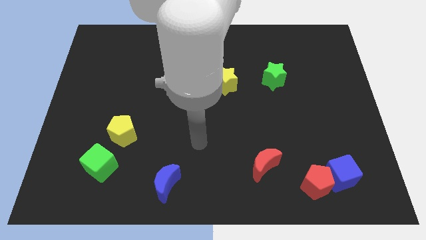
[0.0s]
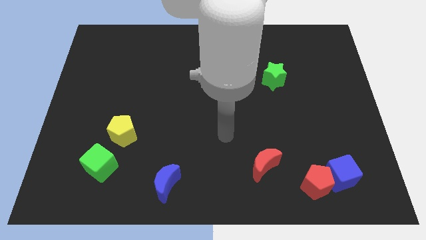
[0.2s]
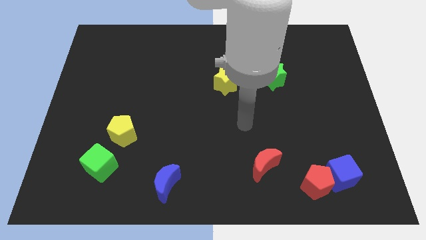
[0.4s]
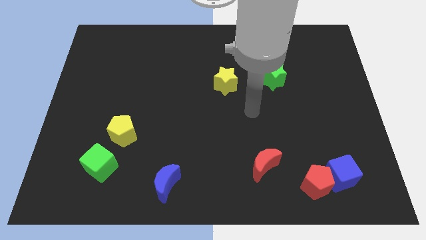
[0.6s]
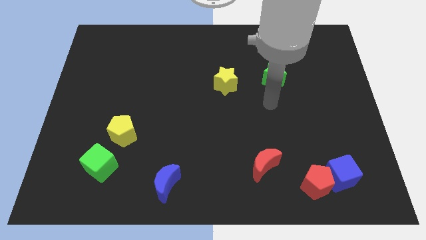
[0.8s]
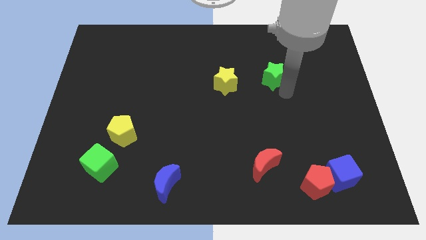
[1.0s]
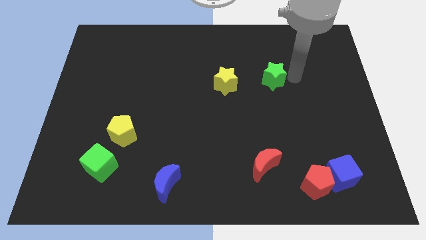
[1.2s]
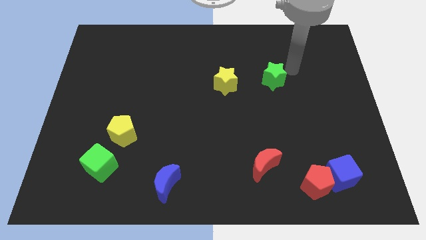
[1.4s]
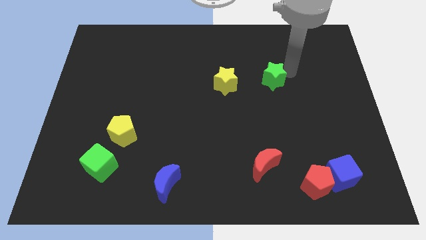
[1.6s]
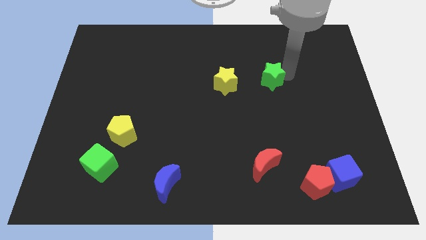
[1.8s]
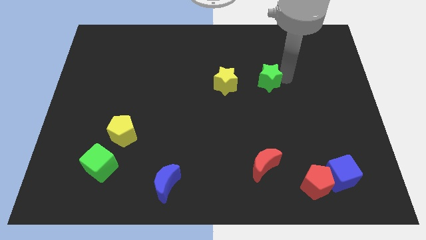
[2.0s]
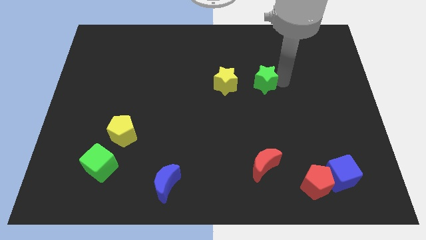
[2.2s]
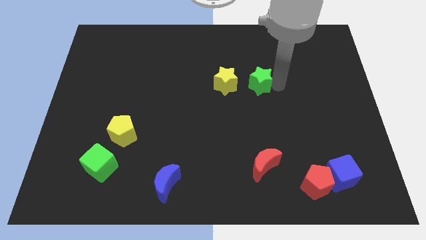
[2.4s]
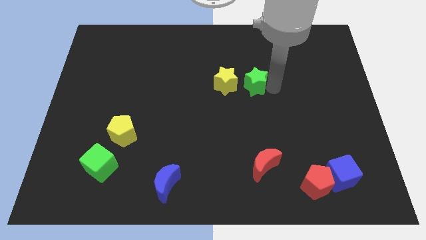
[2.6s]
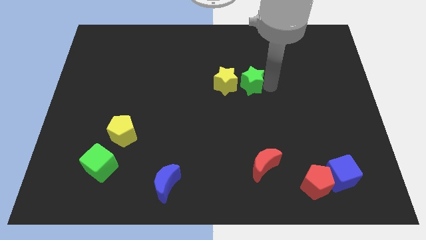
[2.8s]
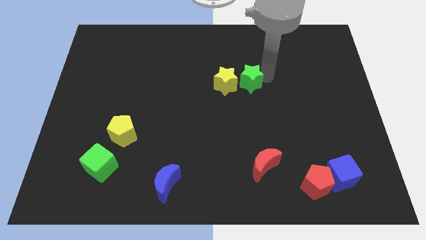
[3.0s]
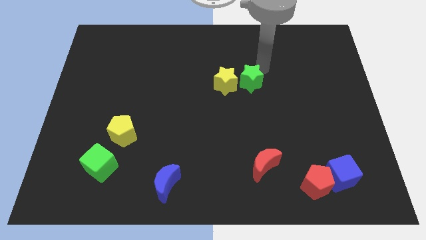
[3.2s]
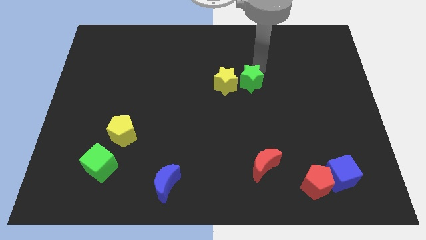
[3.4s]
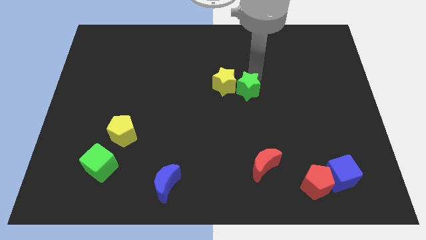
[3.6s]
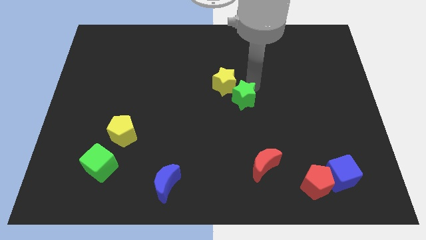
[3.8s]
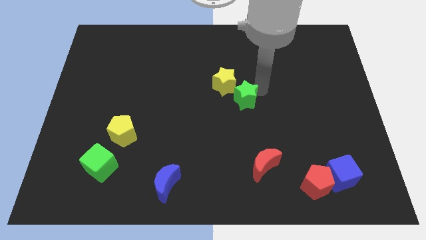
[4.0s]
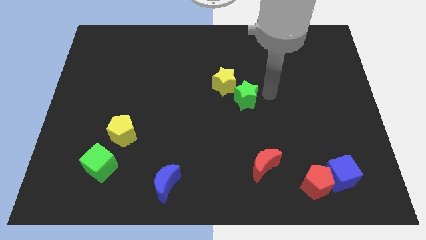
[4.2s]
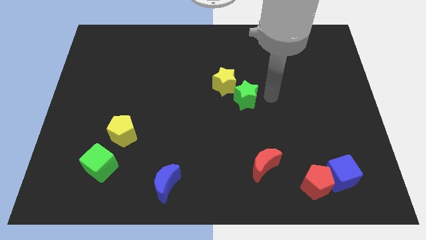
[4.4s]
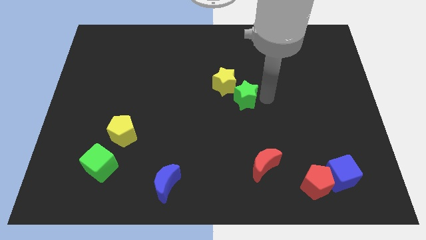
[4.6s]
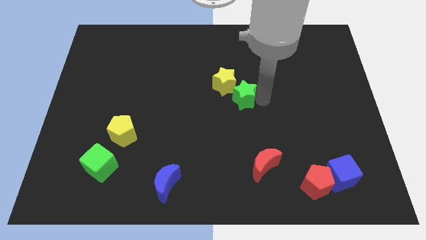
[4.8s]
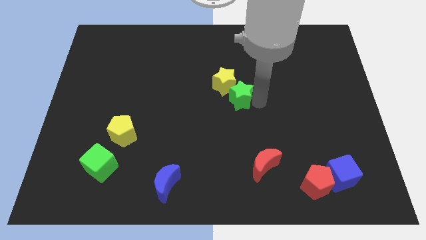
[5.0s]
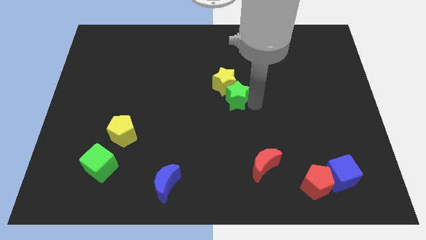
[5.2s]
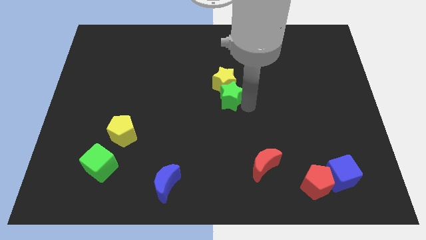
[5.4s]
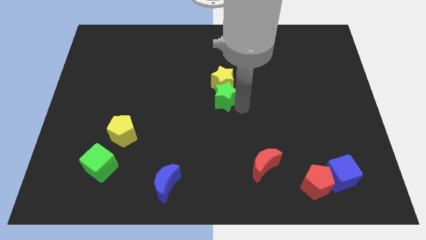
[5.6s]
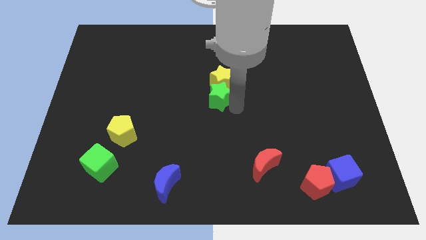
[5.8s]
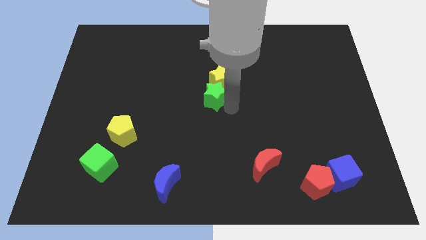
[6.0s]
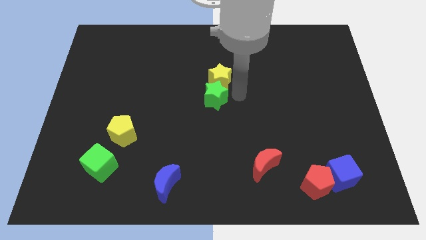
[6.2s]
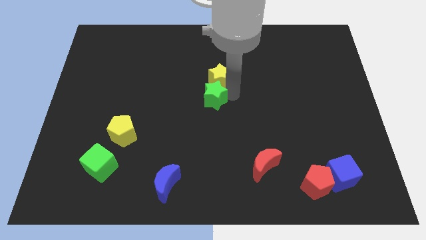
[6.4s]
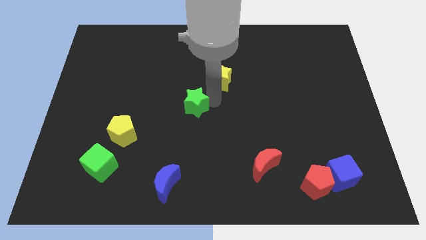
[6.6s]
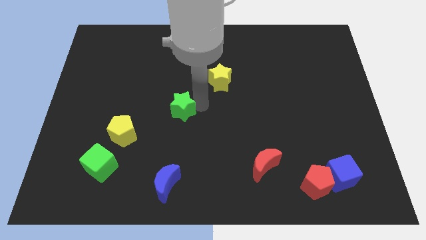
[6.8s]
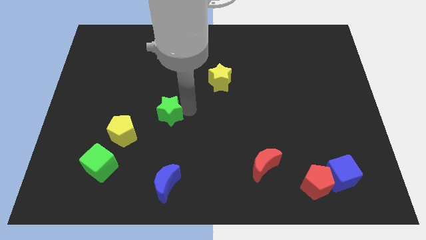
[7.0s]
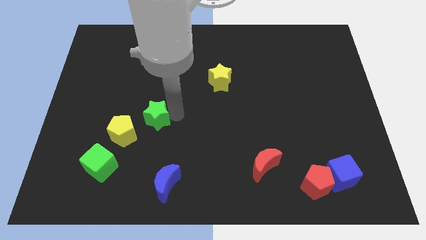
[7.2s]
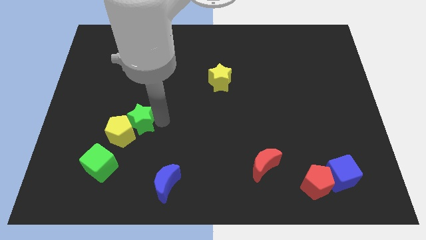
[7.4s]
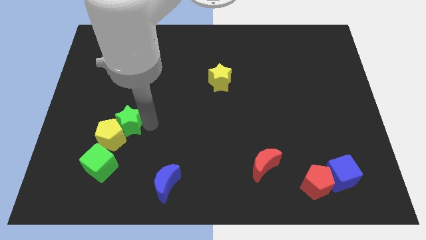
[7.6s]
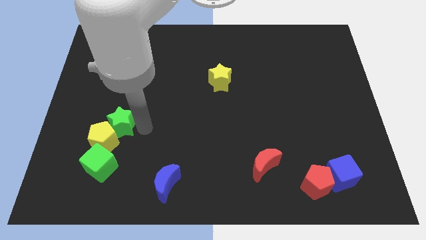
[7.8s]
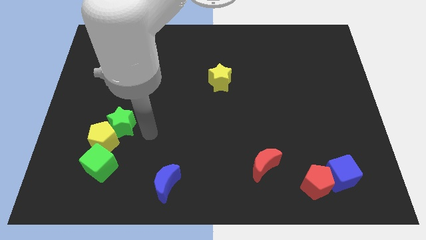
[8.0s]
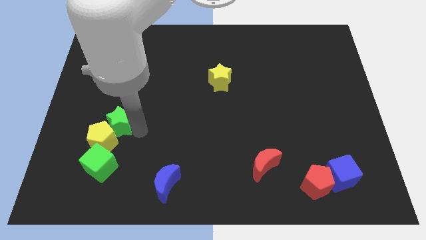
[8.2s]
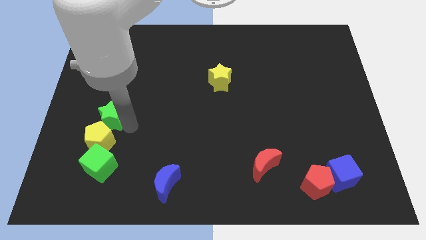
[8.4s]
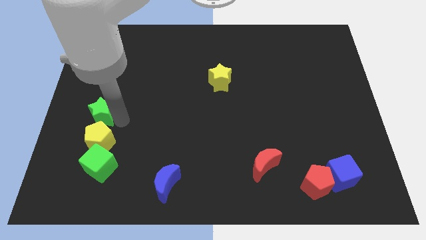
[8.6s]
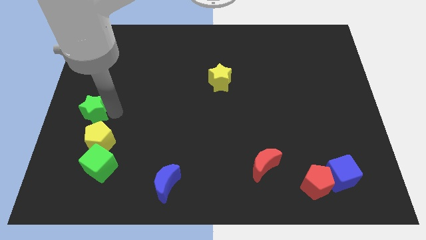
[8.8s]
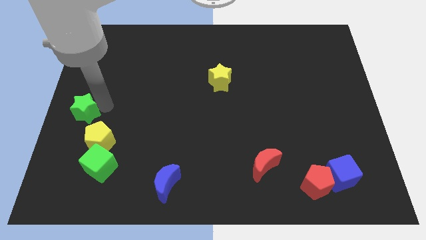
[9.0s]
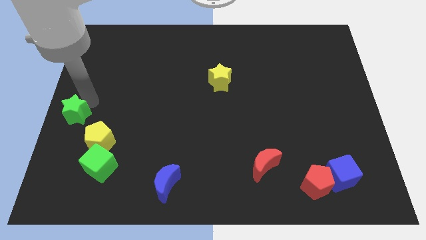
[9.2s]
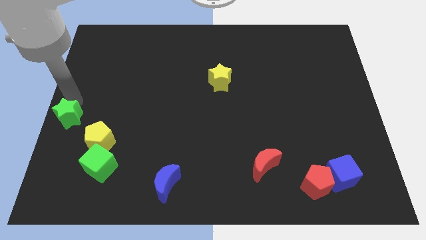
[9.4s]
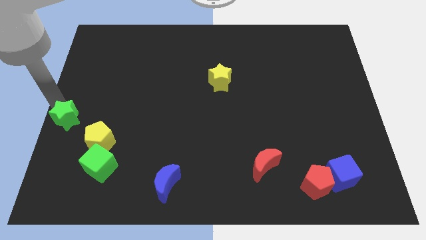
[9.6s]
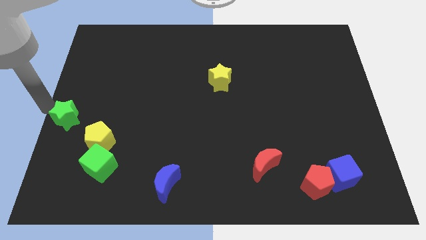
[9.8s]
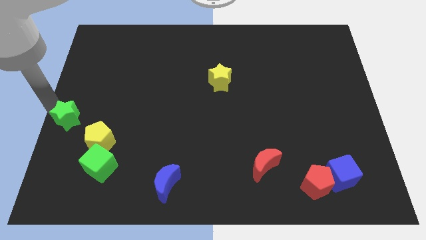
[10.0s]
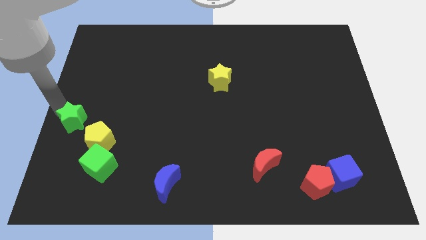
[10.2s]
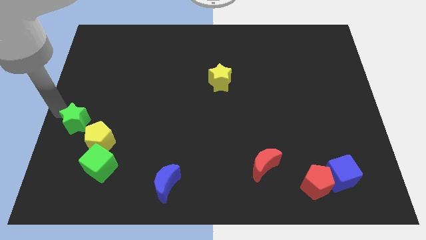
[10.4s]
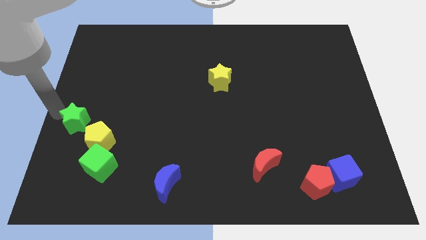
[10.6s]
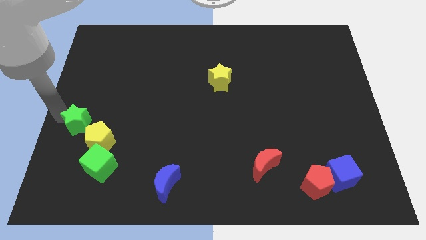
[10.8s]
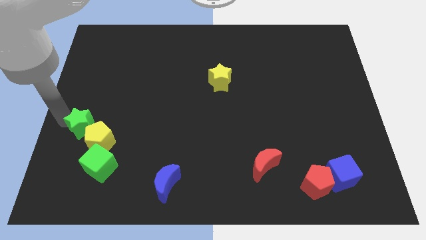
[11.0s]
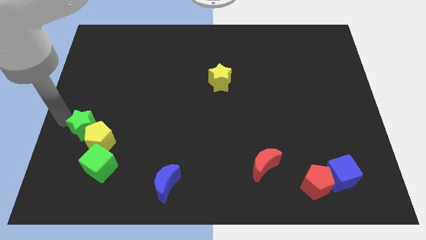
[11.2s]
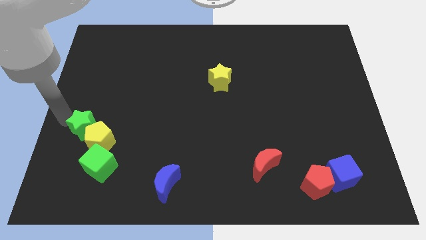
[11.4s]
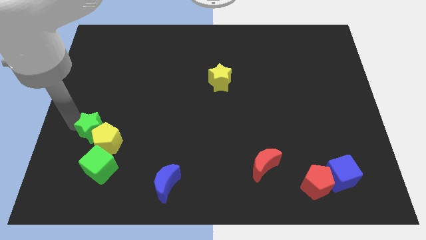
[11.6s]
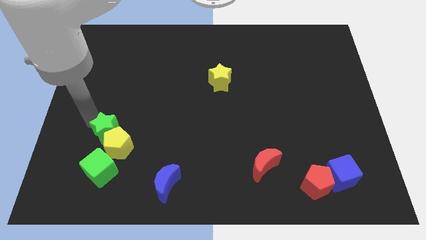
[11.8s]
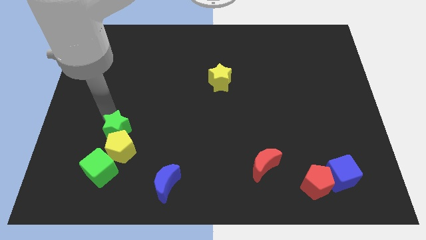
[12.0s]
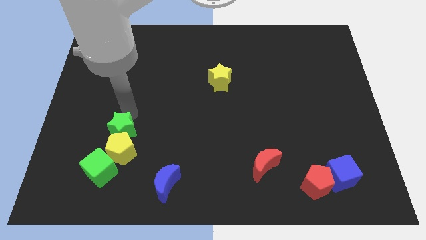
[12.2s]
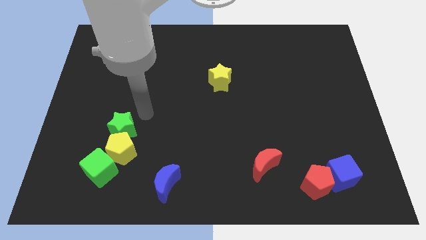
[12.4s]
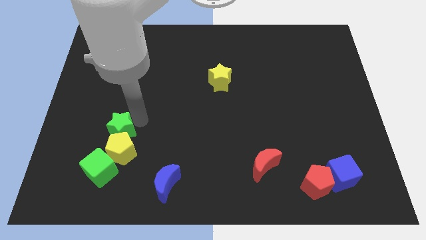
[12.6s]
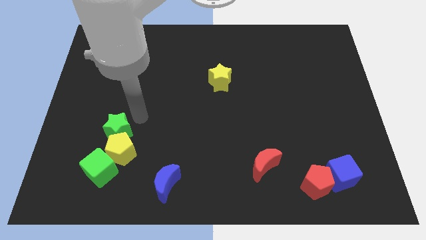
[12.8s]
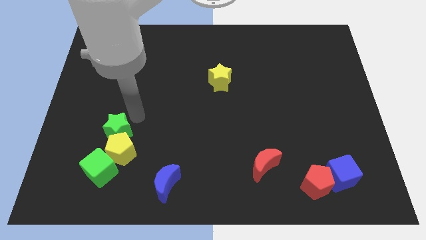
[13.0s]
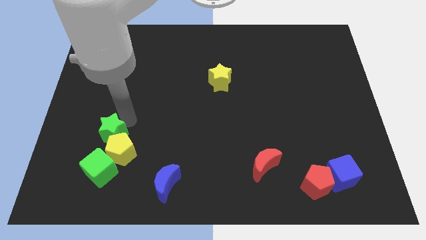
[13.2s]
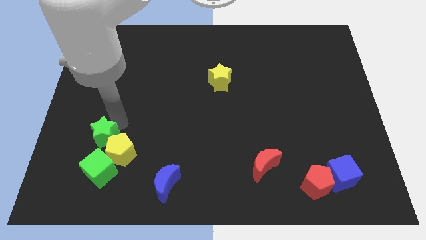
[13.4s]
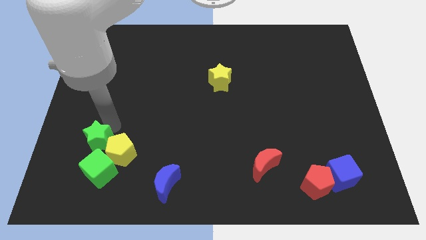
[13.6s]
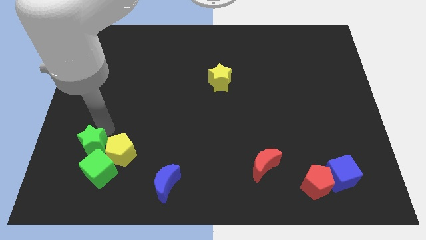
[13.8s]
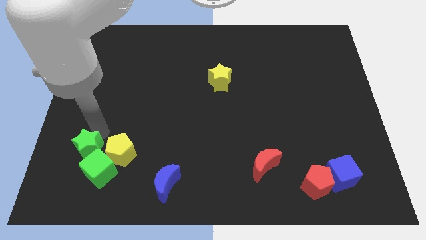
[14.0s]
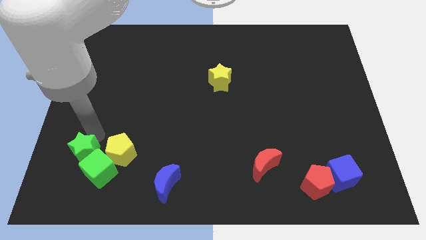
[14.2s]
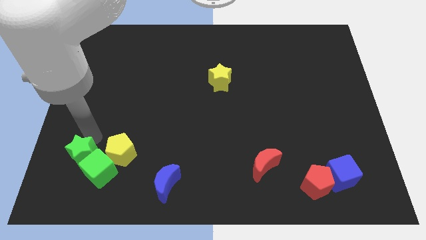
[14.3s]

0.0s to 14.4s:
slide the green star to the bottom left side of the yellow pentagon

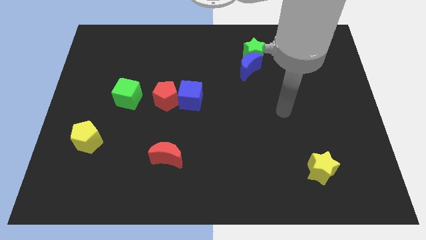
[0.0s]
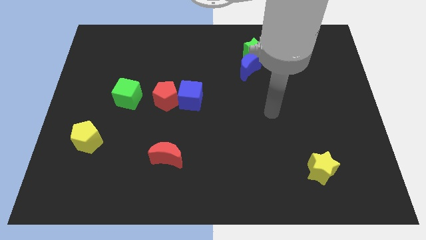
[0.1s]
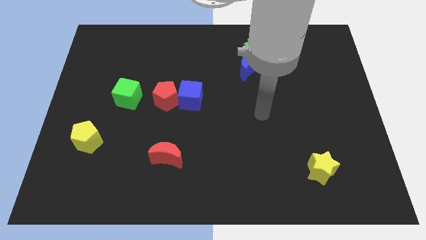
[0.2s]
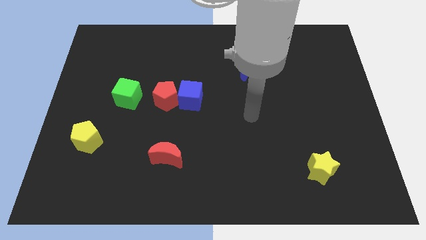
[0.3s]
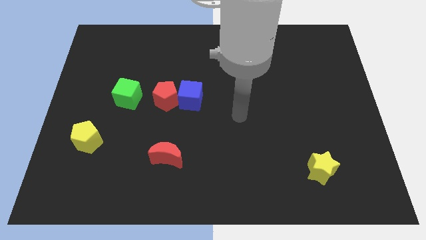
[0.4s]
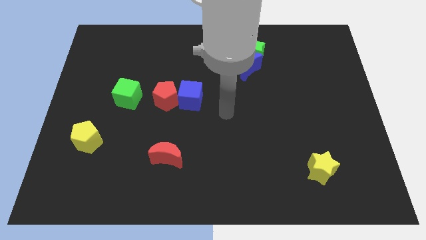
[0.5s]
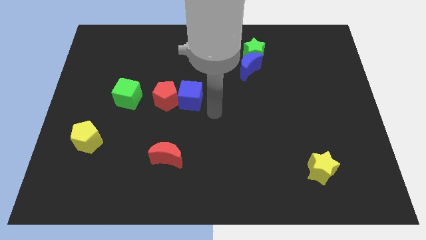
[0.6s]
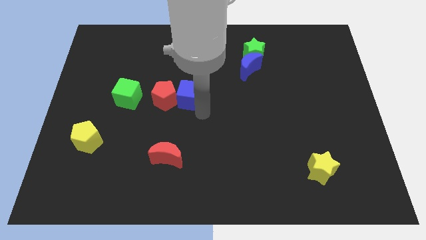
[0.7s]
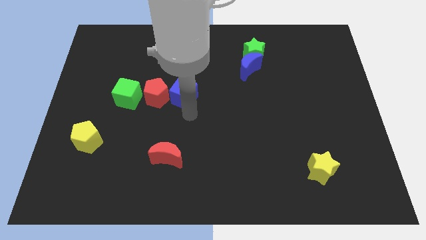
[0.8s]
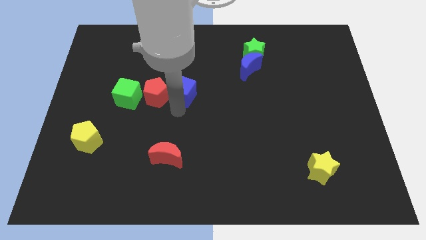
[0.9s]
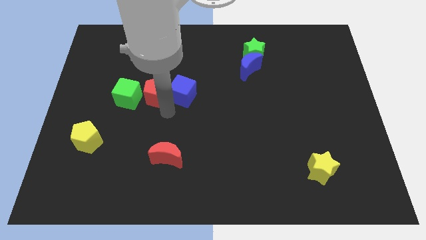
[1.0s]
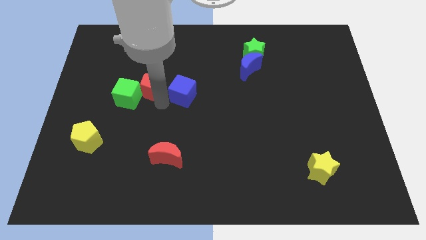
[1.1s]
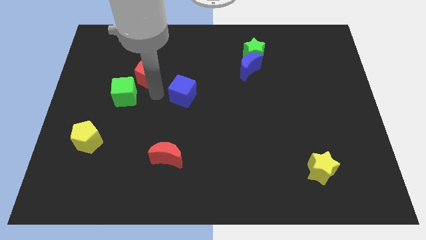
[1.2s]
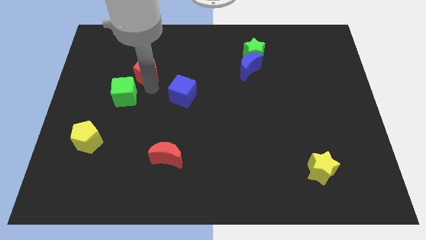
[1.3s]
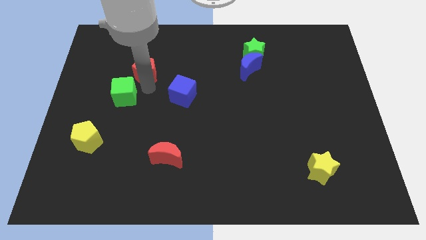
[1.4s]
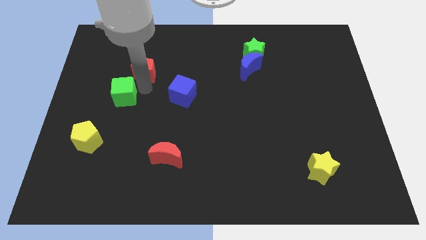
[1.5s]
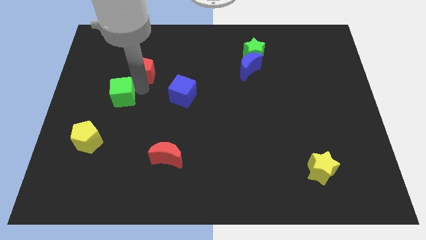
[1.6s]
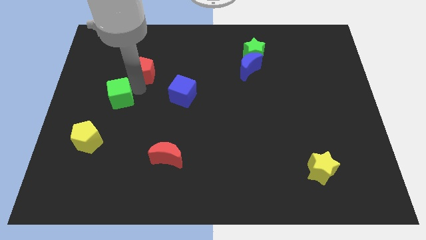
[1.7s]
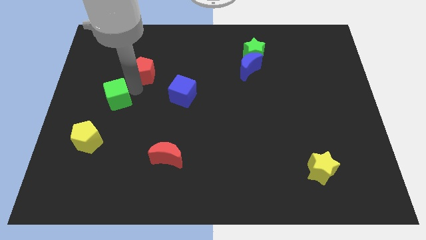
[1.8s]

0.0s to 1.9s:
put the green cube above the yellow pentagon
